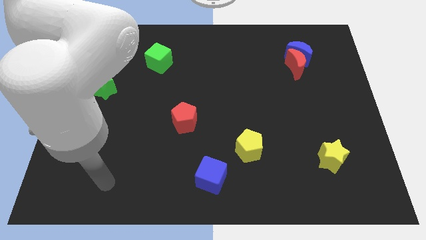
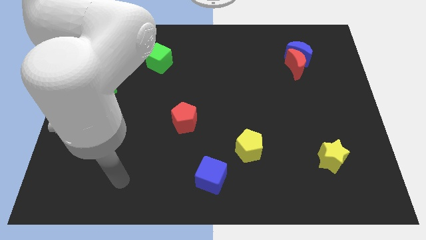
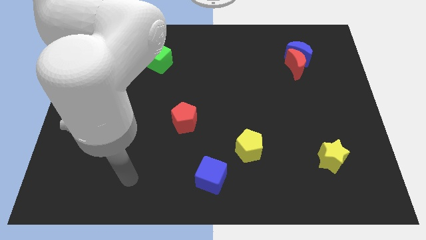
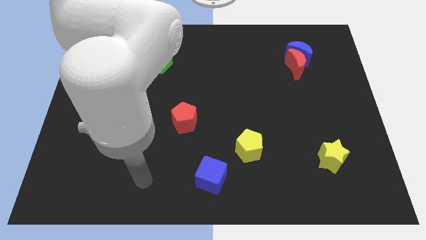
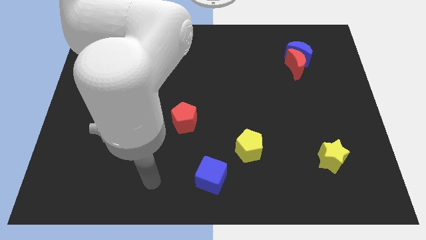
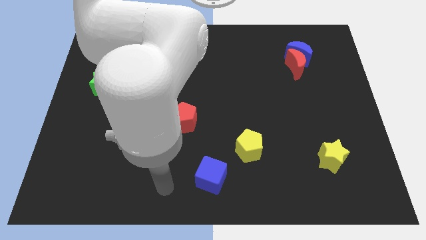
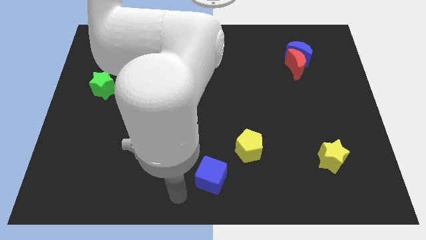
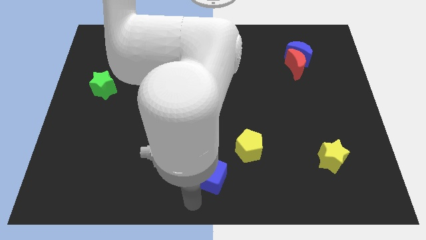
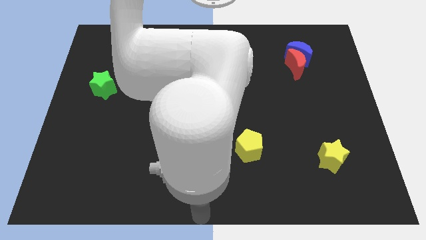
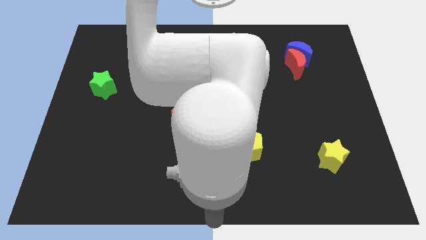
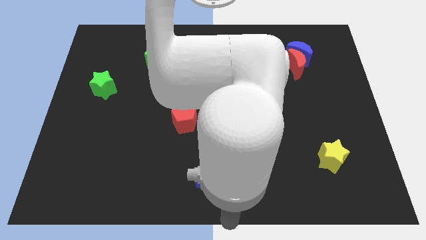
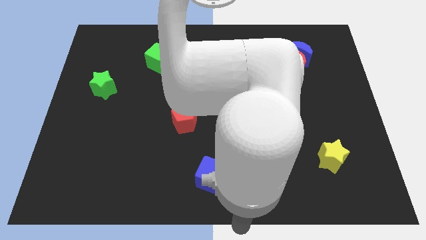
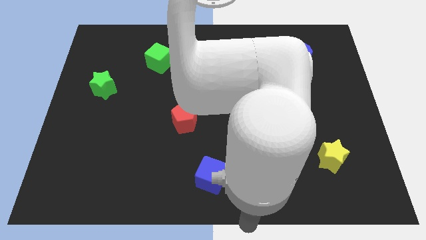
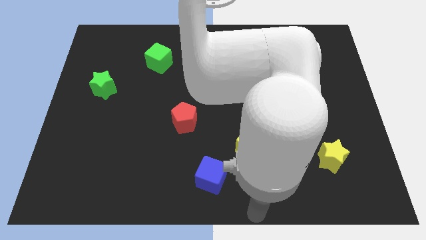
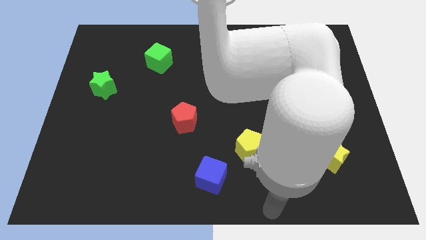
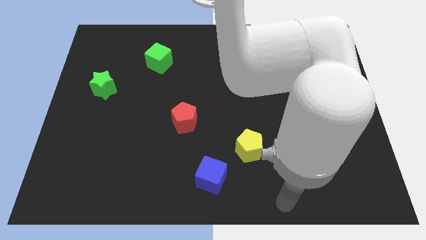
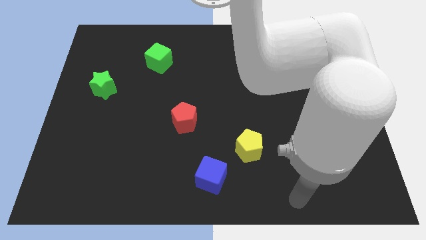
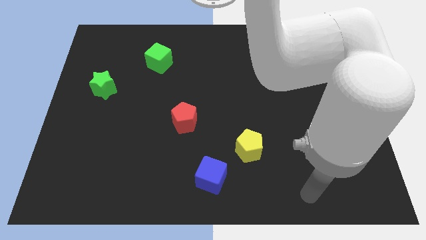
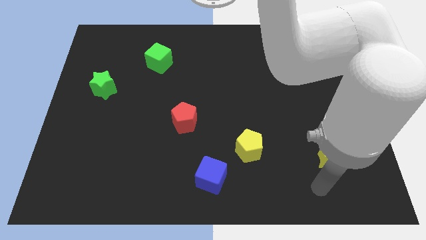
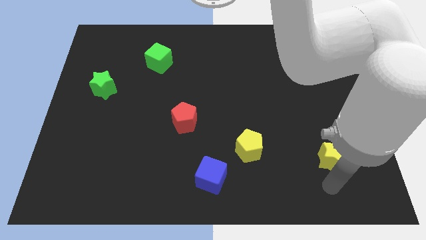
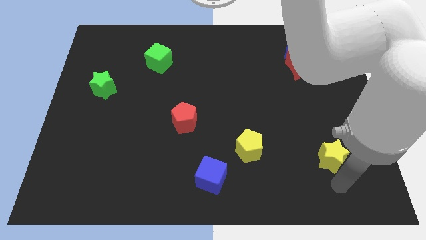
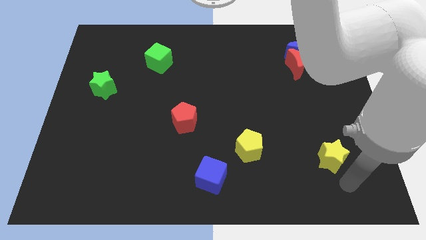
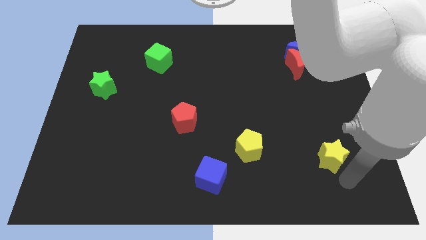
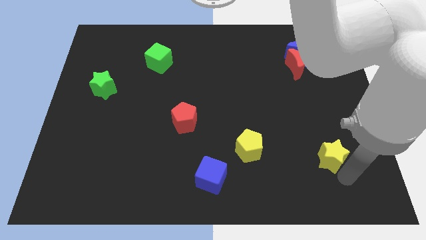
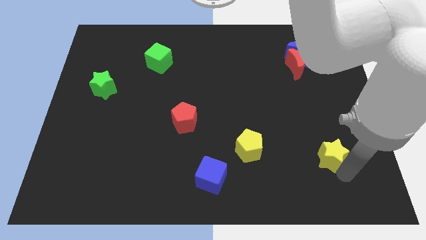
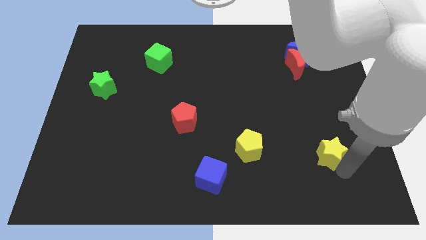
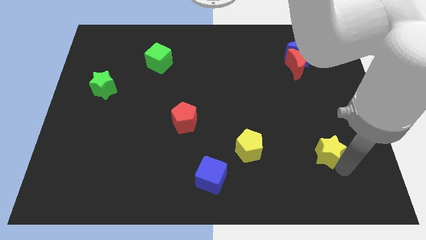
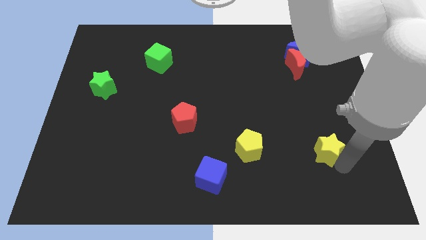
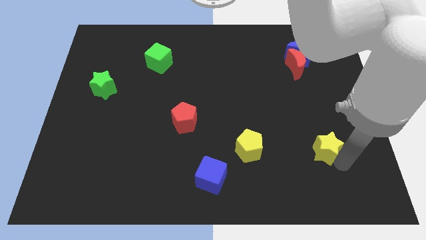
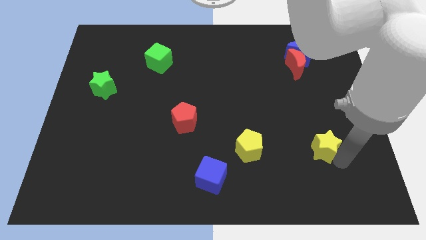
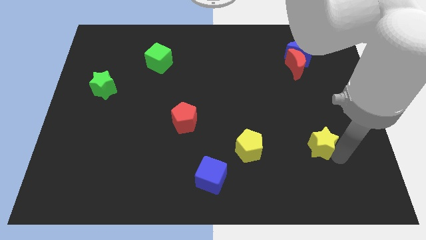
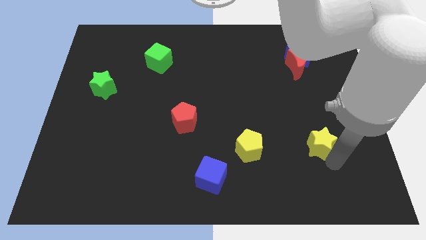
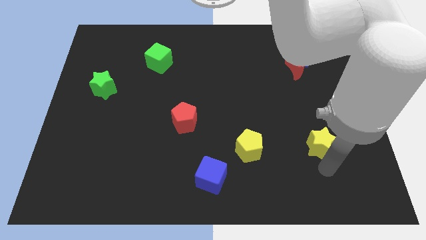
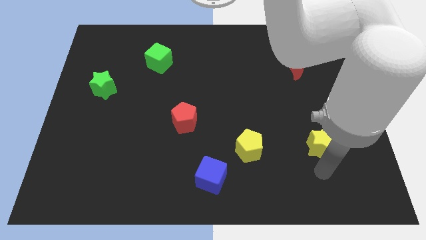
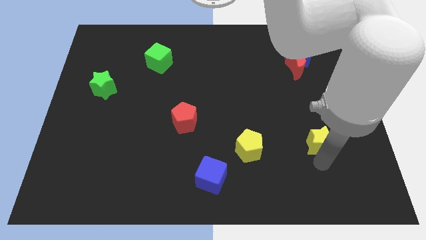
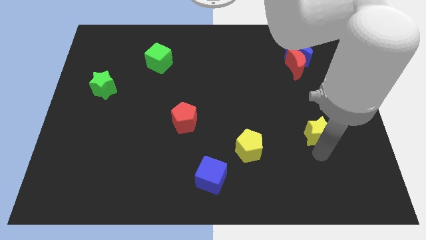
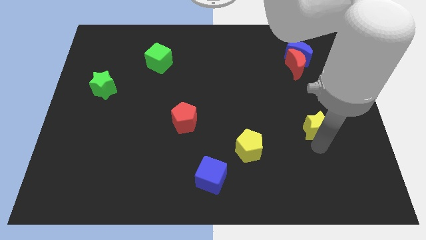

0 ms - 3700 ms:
slightly slide the yellow star upwards

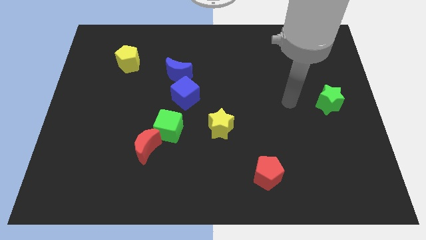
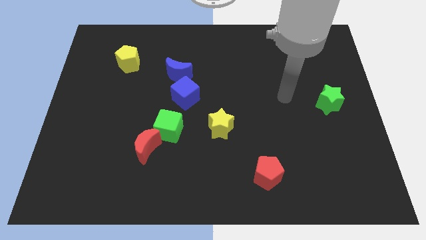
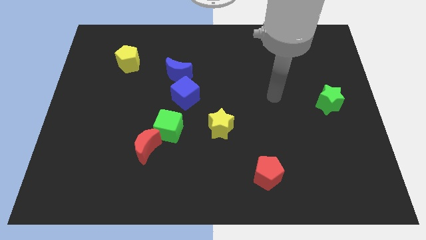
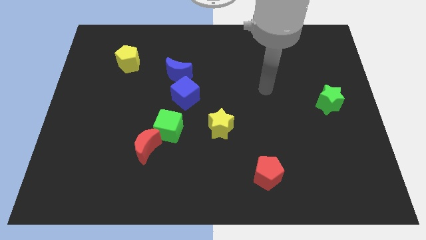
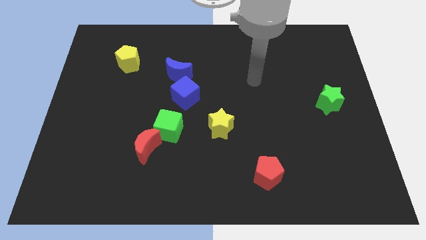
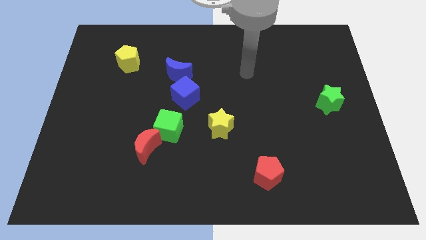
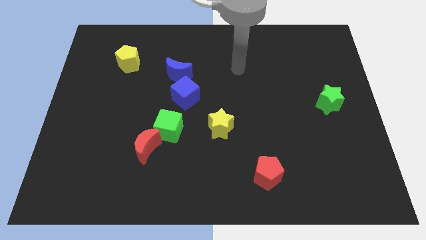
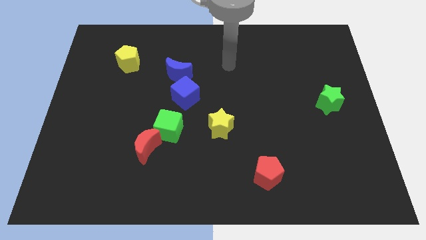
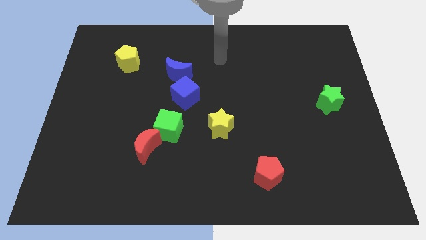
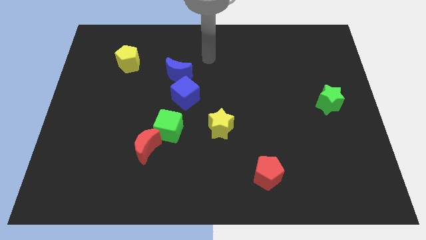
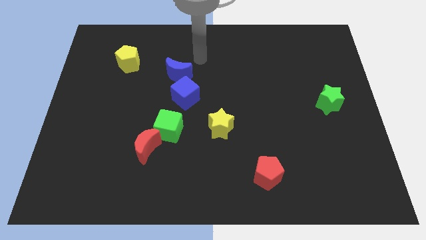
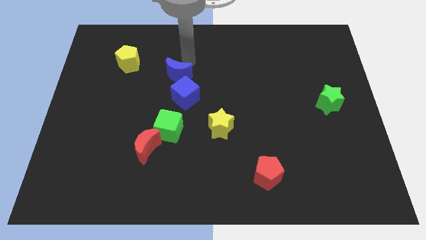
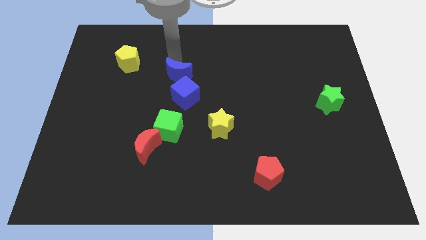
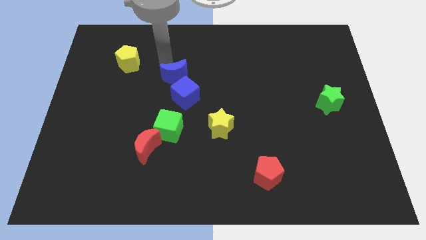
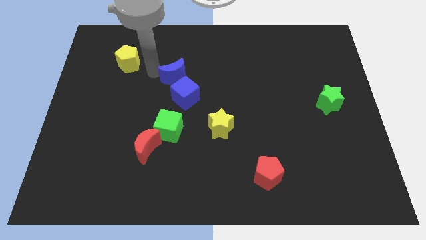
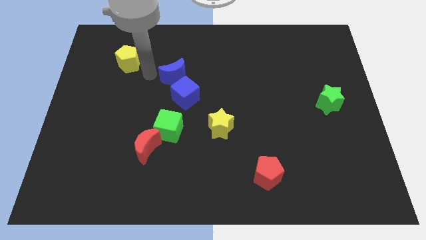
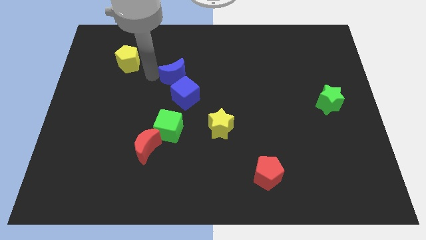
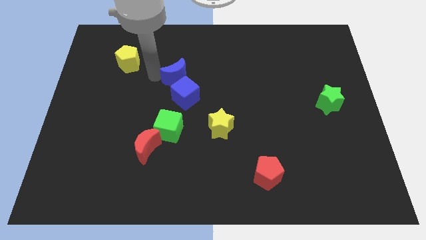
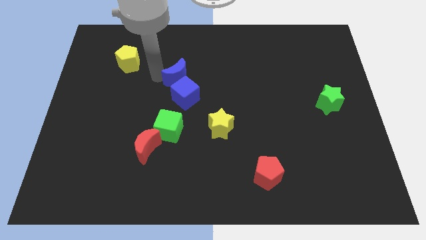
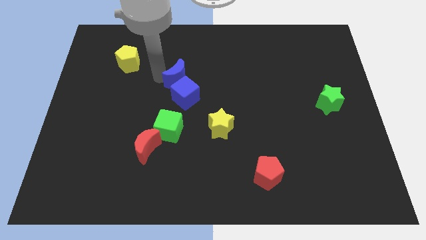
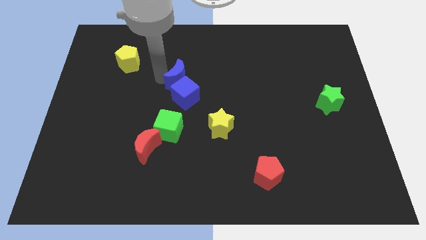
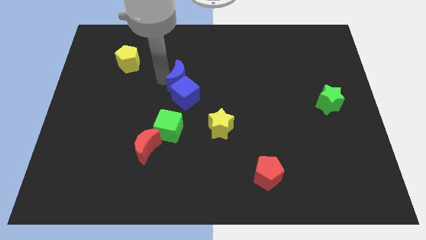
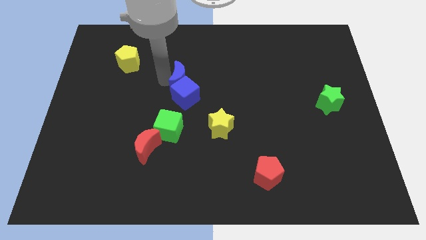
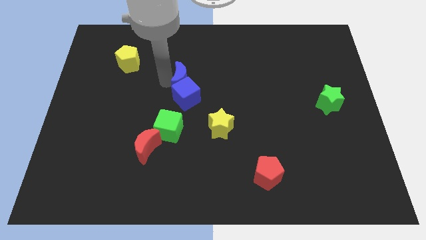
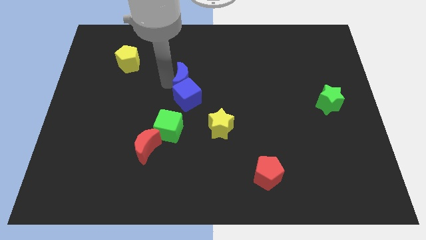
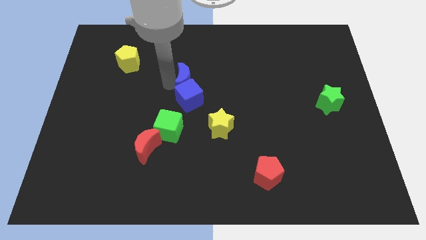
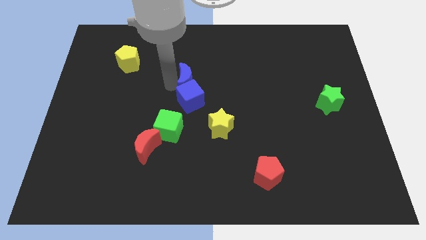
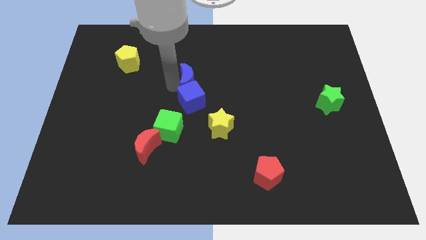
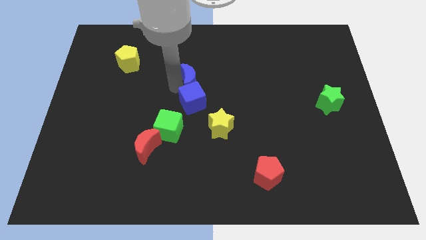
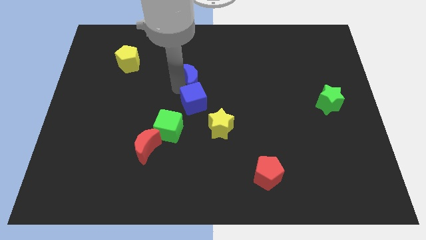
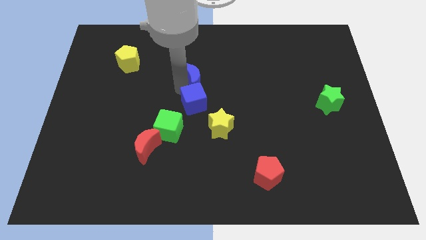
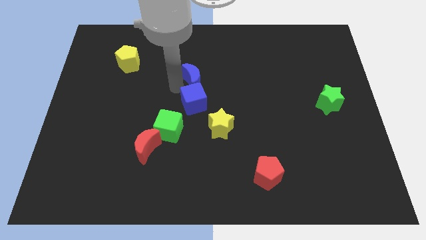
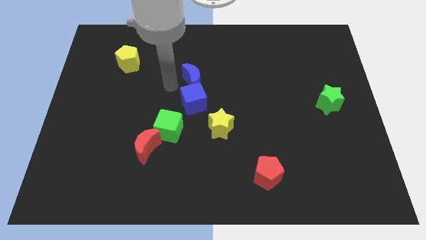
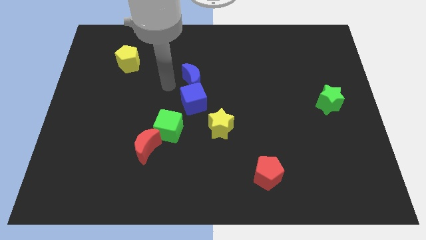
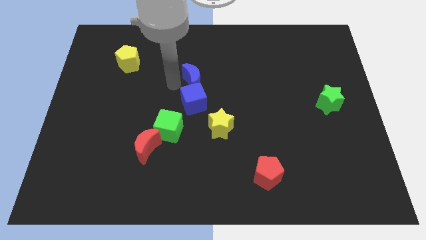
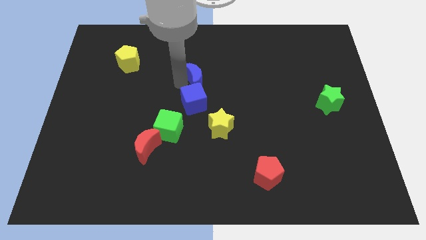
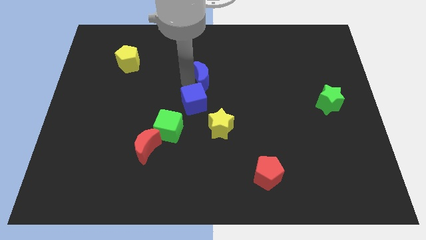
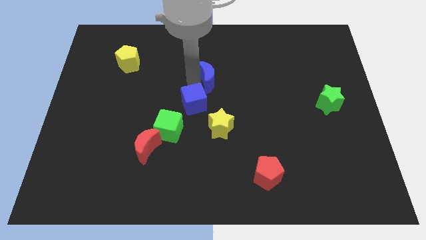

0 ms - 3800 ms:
slide the blue moon right a little bit

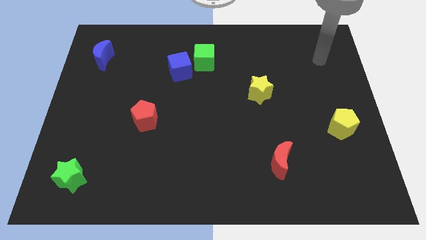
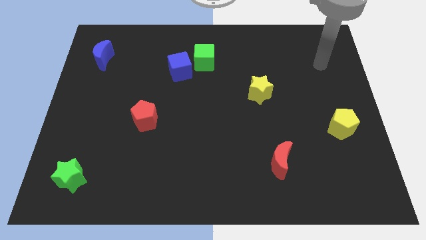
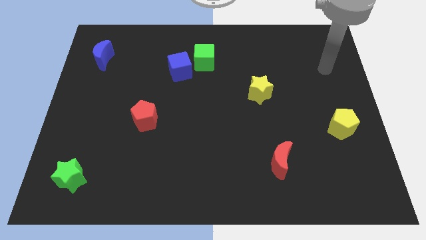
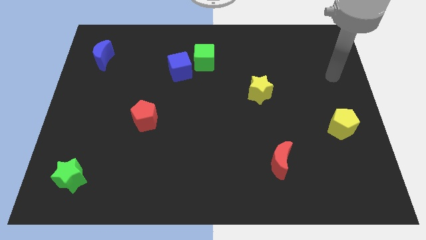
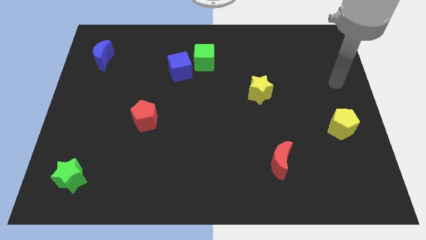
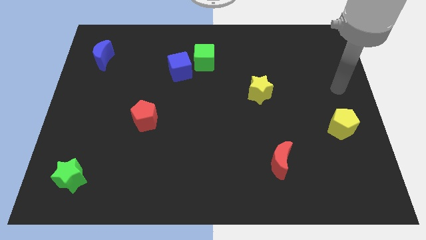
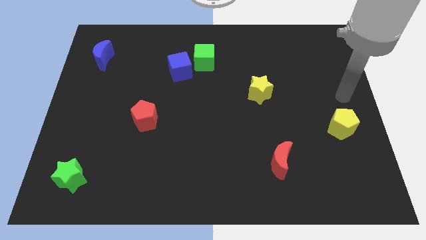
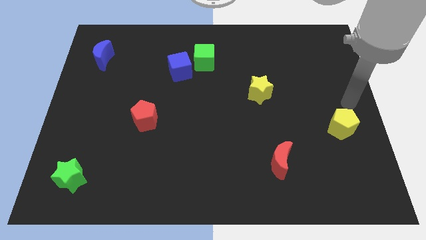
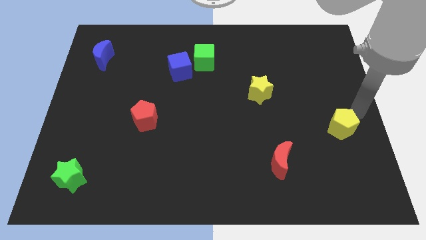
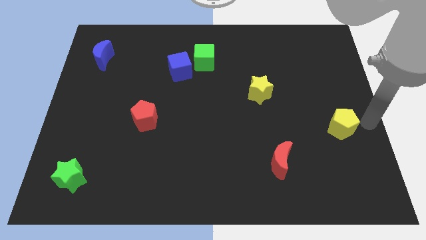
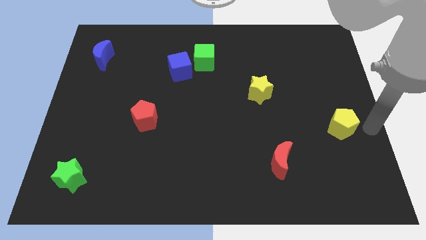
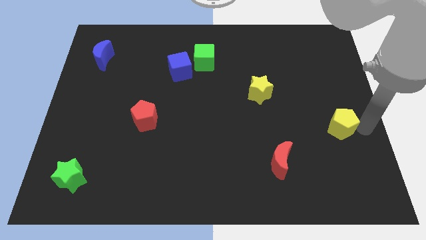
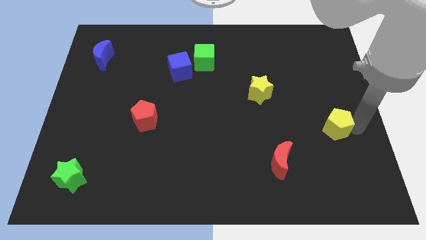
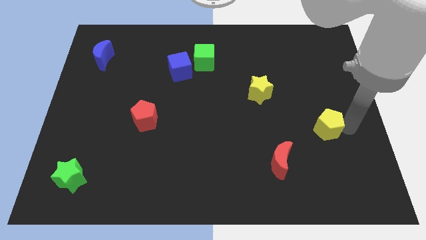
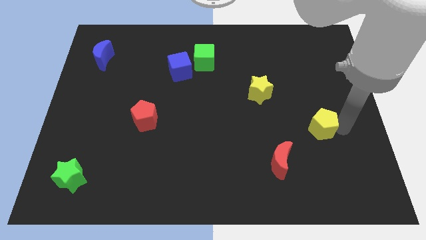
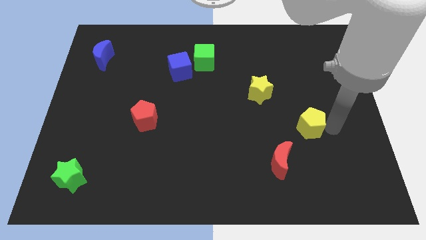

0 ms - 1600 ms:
move the yellow pentagon to the left slightly
